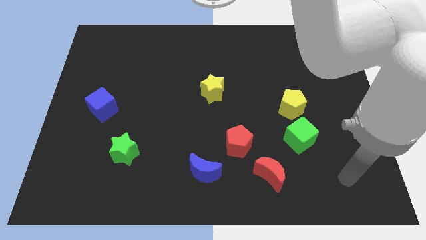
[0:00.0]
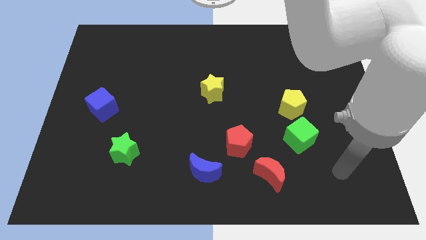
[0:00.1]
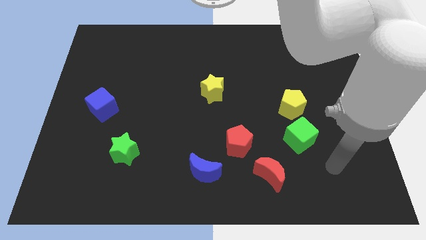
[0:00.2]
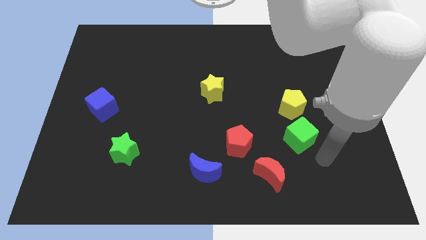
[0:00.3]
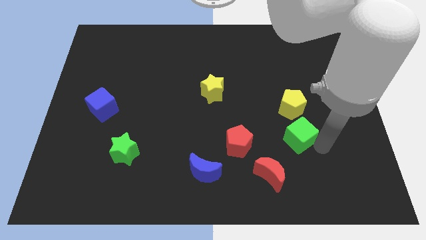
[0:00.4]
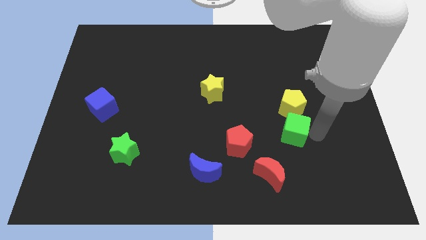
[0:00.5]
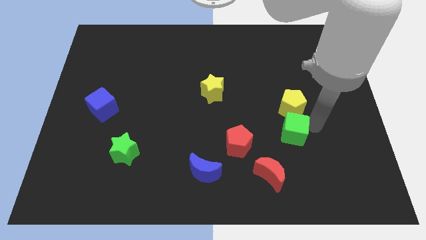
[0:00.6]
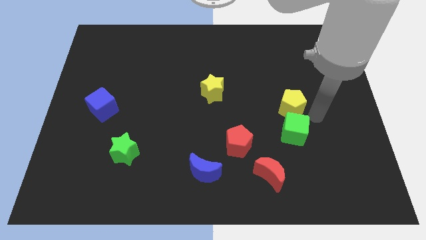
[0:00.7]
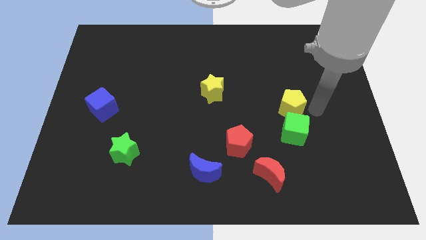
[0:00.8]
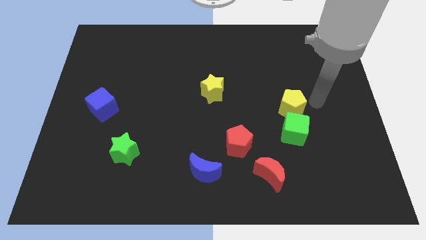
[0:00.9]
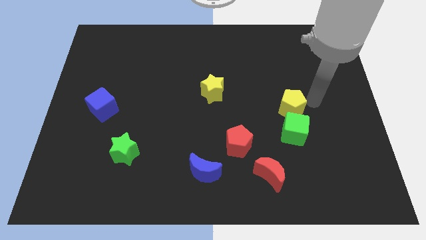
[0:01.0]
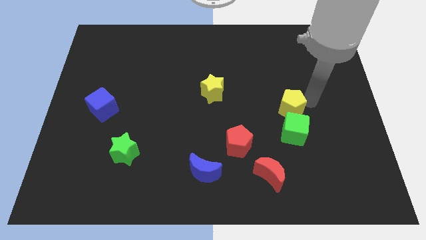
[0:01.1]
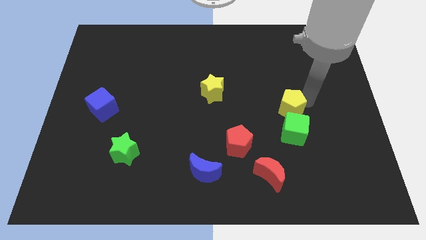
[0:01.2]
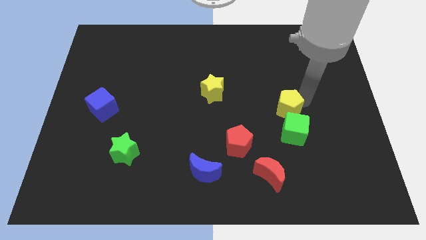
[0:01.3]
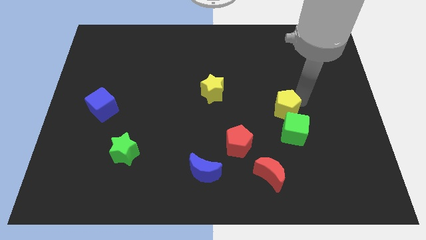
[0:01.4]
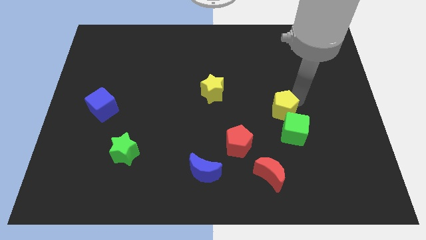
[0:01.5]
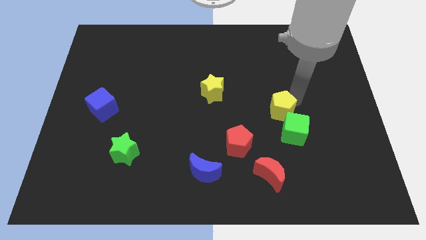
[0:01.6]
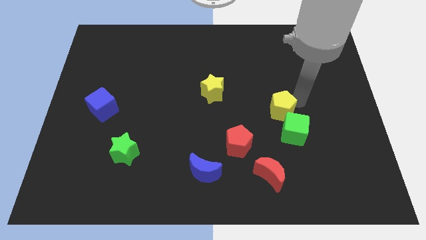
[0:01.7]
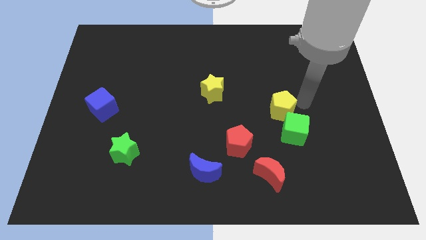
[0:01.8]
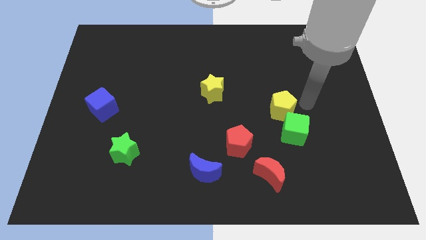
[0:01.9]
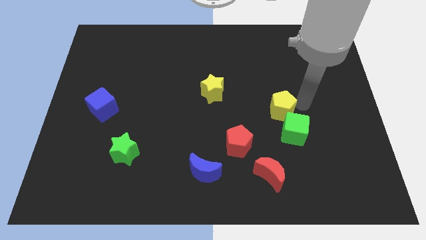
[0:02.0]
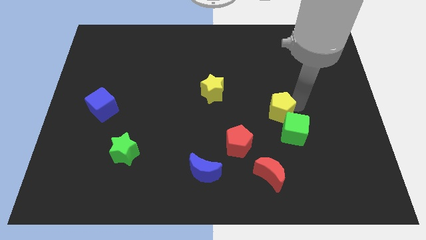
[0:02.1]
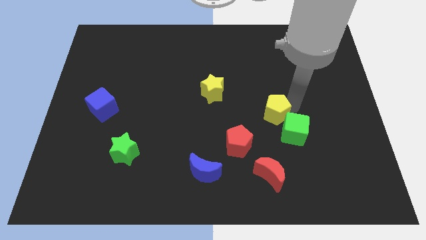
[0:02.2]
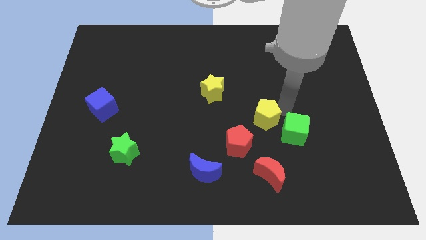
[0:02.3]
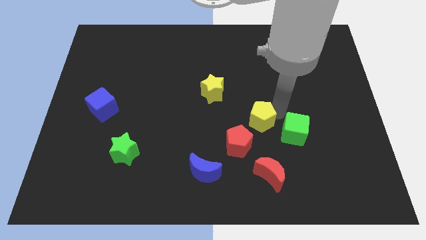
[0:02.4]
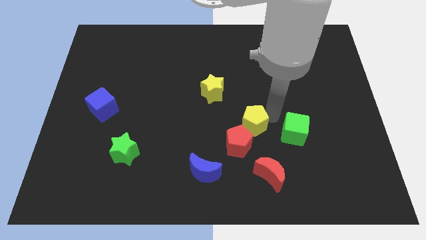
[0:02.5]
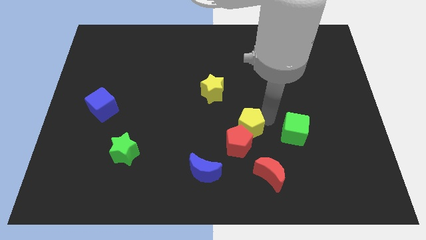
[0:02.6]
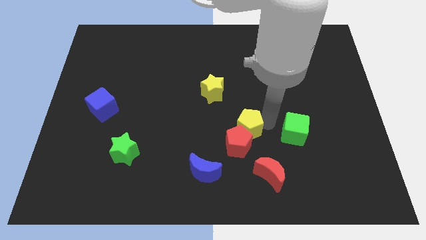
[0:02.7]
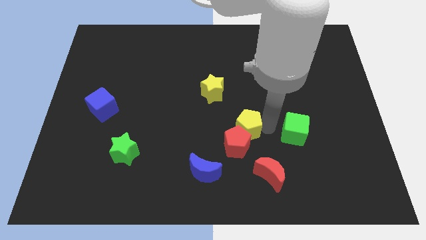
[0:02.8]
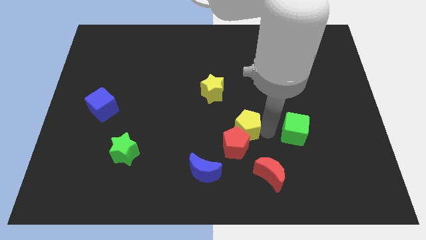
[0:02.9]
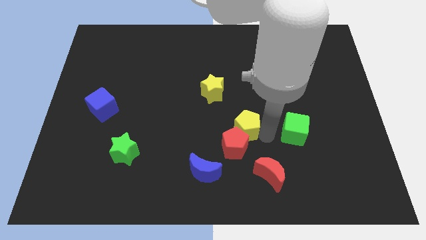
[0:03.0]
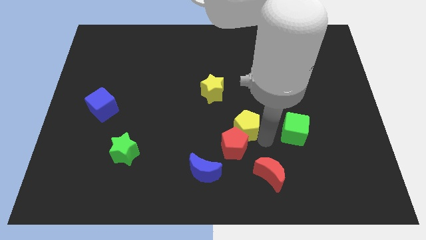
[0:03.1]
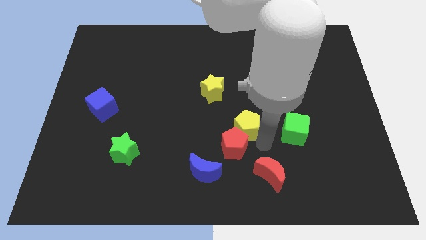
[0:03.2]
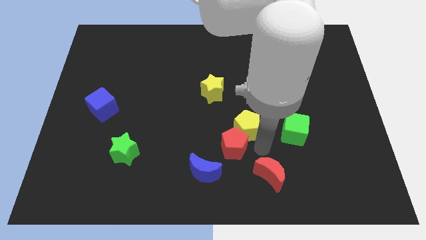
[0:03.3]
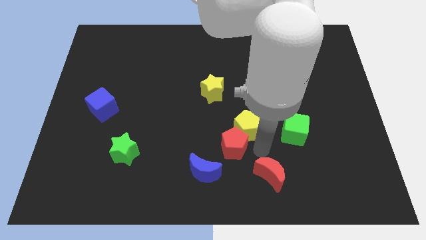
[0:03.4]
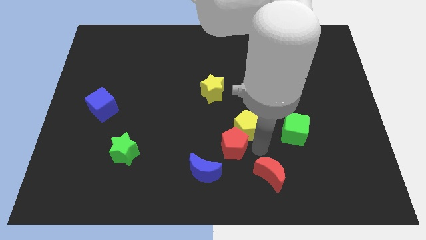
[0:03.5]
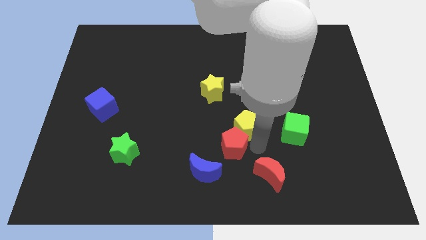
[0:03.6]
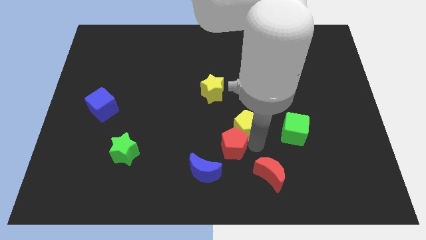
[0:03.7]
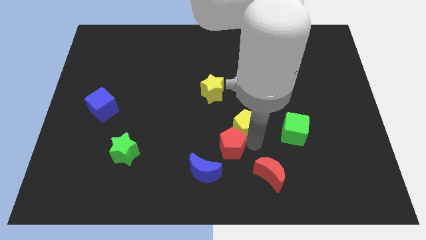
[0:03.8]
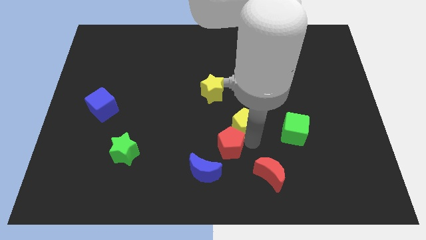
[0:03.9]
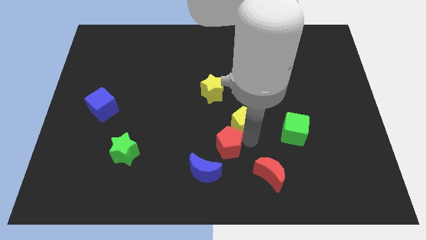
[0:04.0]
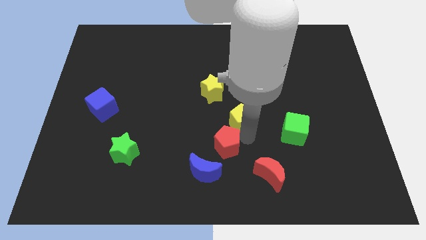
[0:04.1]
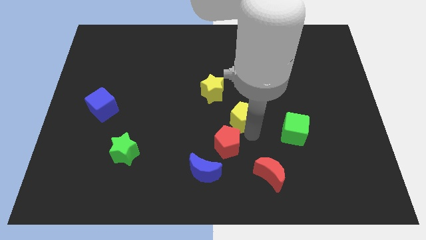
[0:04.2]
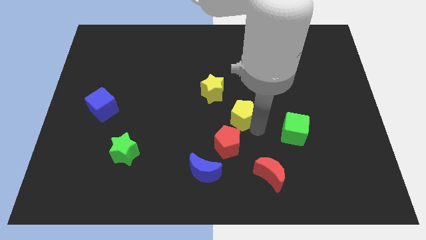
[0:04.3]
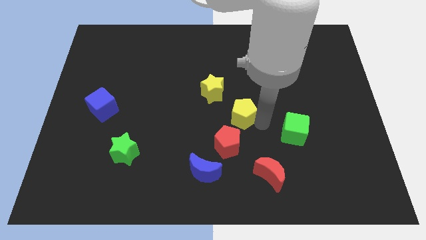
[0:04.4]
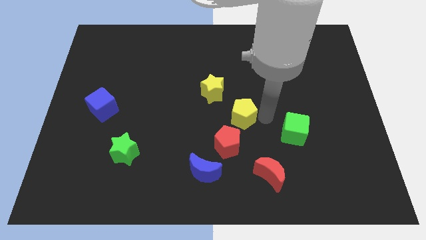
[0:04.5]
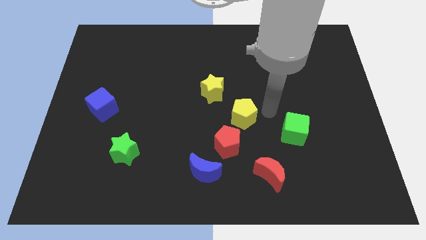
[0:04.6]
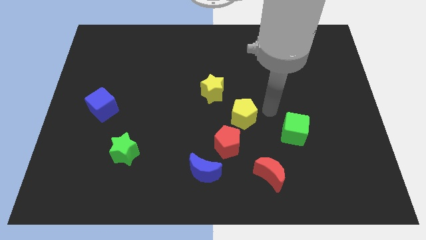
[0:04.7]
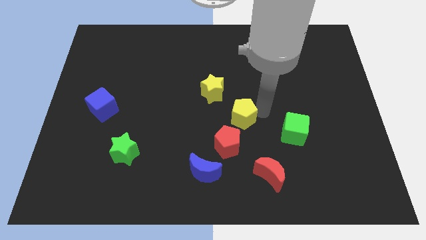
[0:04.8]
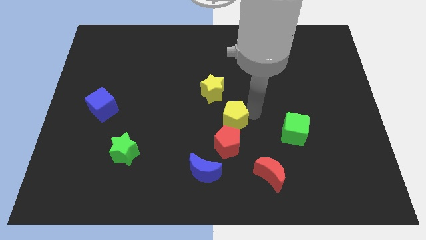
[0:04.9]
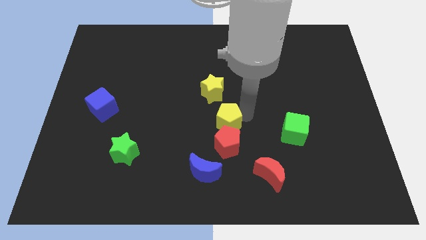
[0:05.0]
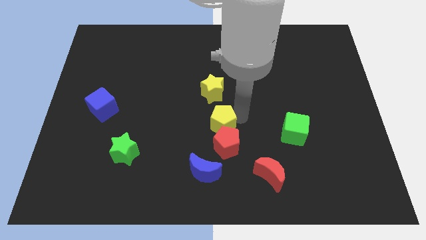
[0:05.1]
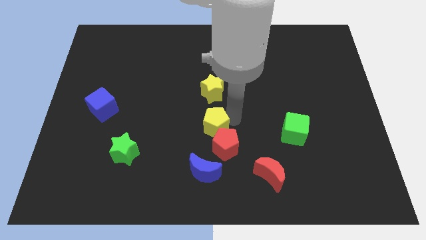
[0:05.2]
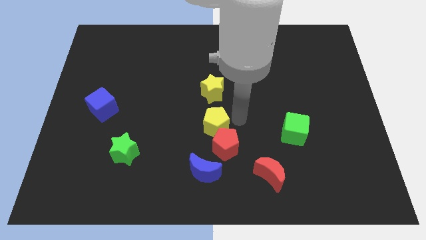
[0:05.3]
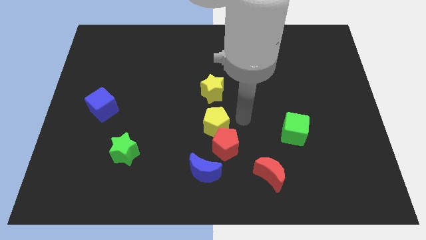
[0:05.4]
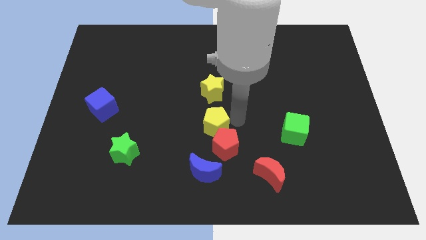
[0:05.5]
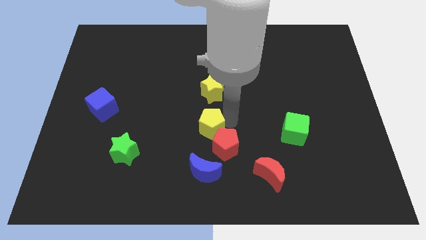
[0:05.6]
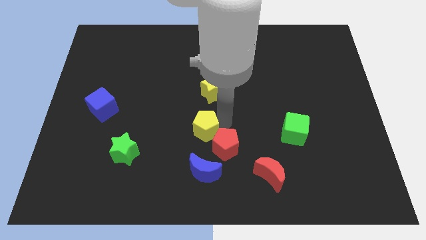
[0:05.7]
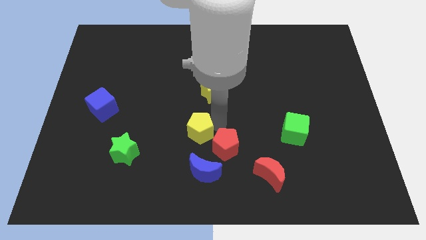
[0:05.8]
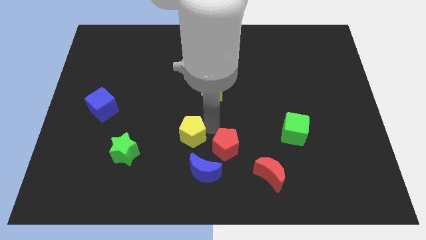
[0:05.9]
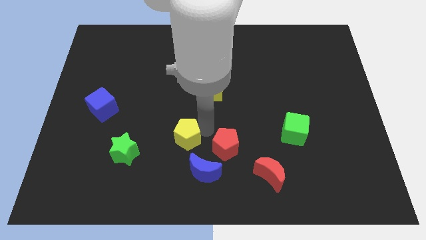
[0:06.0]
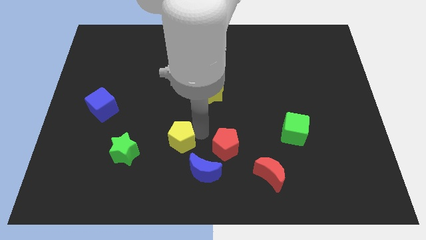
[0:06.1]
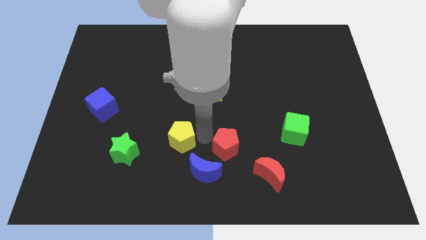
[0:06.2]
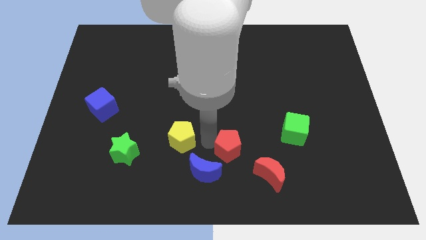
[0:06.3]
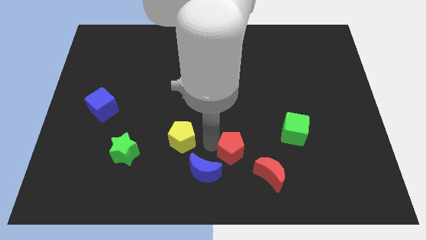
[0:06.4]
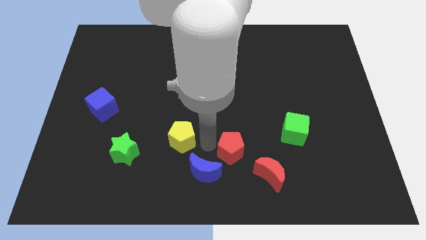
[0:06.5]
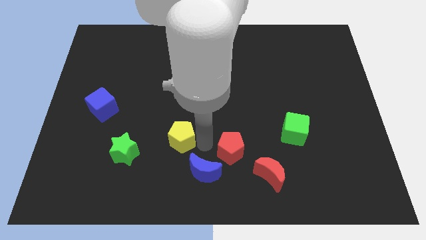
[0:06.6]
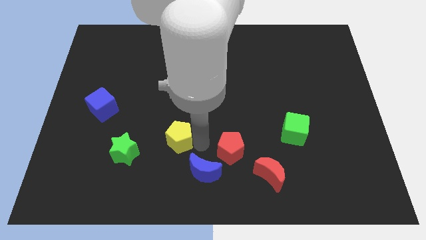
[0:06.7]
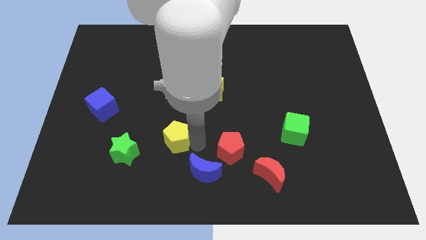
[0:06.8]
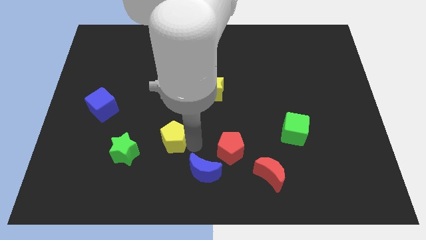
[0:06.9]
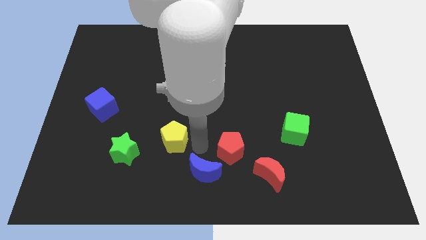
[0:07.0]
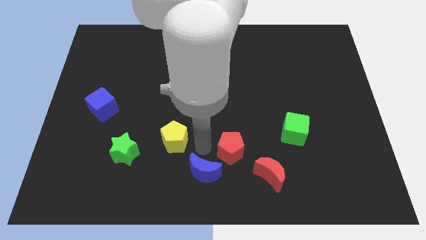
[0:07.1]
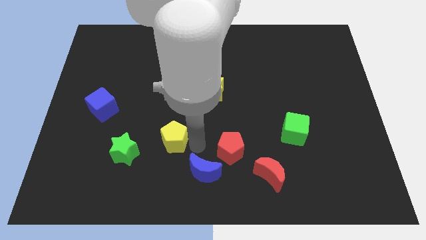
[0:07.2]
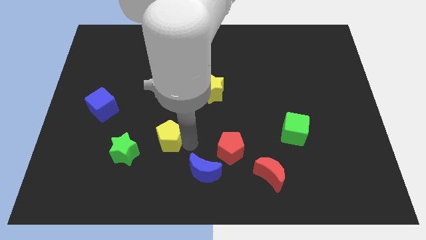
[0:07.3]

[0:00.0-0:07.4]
put the yellow pentagon to the top right side of the green star
